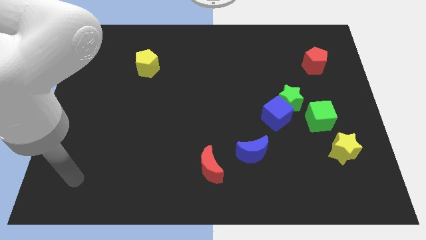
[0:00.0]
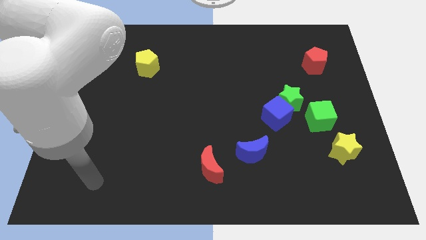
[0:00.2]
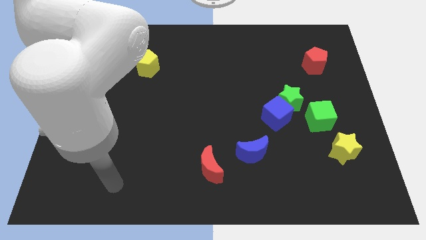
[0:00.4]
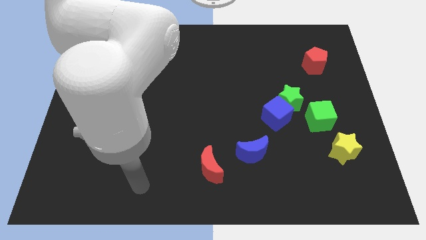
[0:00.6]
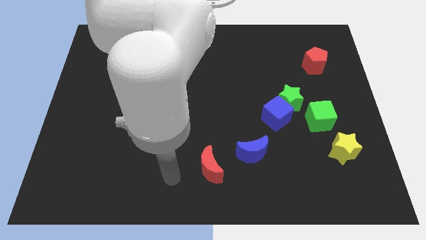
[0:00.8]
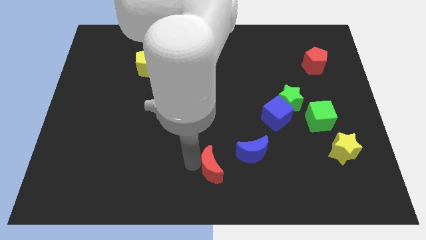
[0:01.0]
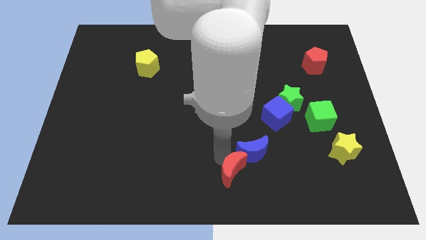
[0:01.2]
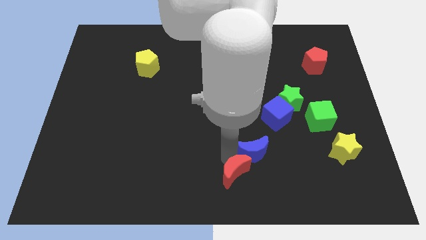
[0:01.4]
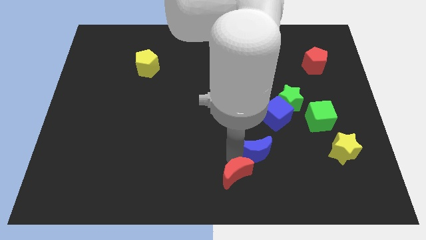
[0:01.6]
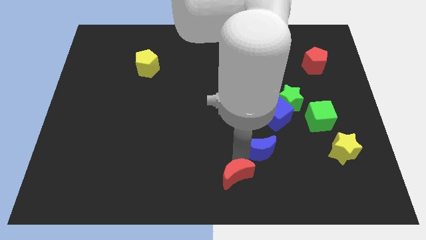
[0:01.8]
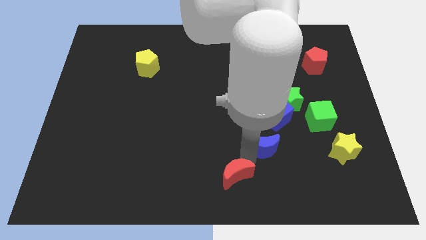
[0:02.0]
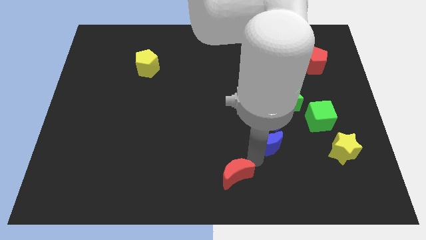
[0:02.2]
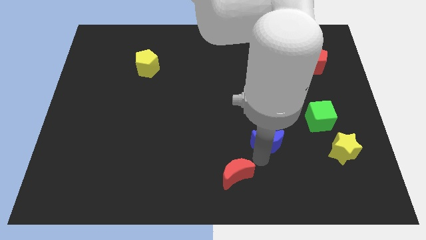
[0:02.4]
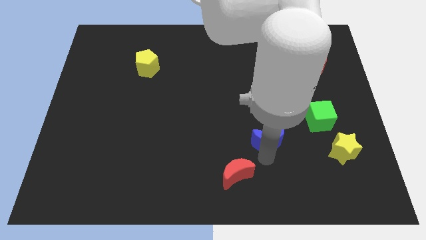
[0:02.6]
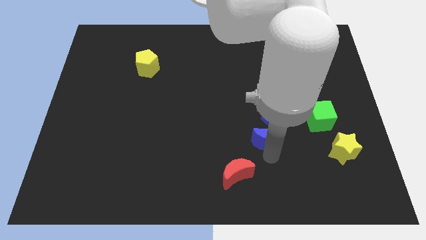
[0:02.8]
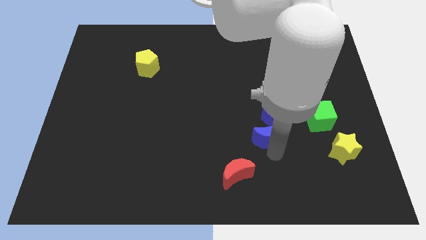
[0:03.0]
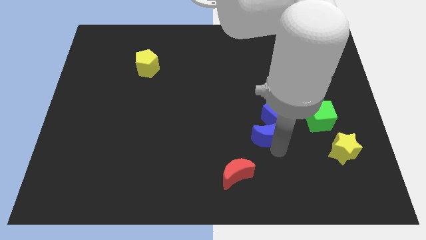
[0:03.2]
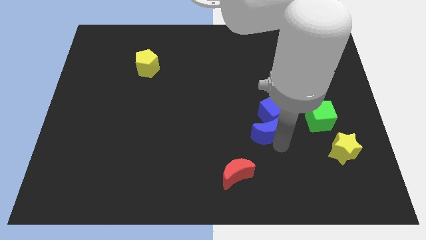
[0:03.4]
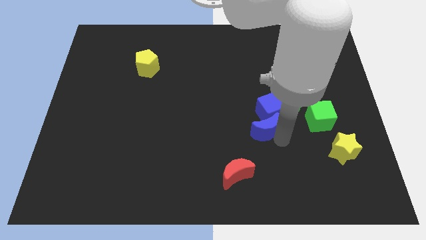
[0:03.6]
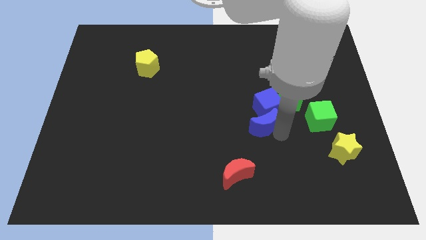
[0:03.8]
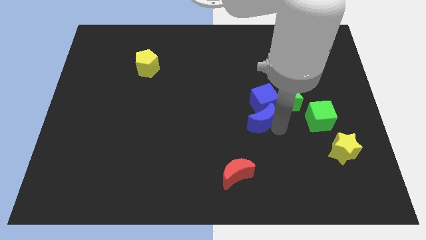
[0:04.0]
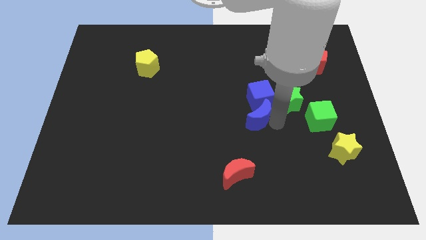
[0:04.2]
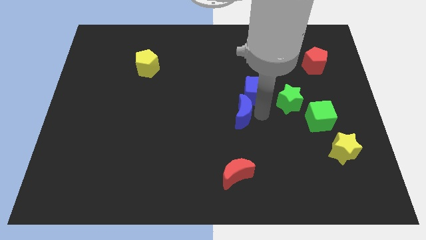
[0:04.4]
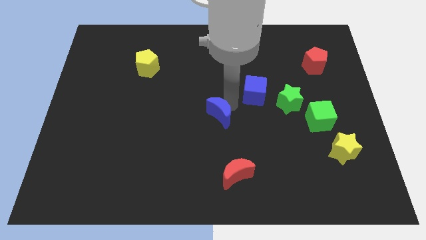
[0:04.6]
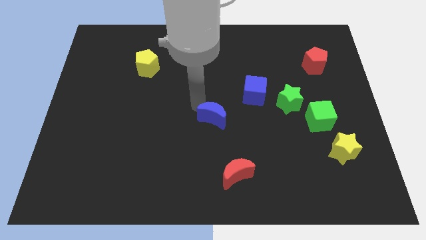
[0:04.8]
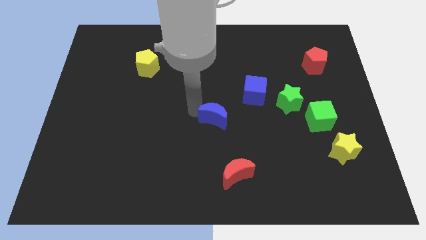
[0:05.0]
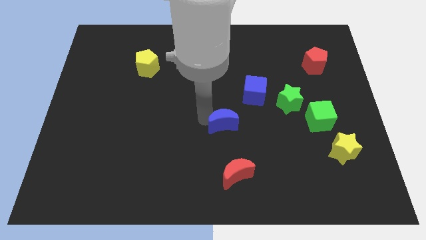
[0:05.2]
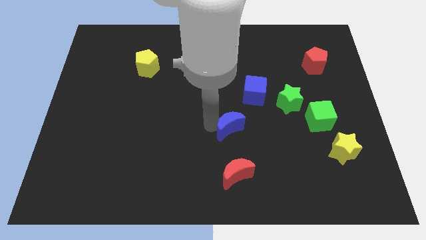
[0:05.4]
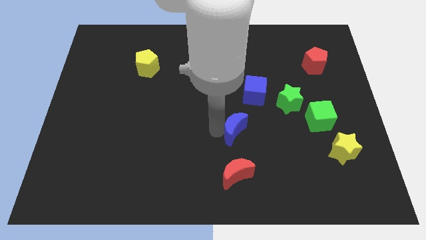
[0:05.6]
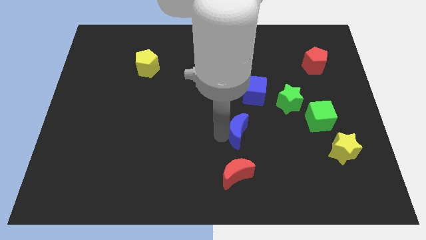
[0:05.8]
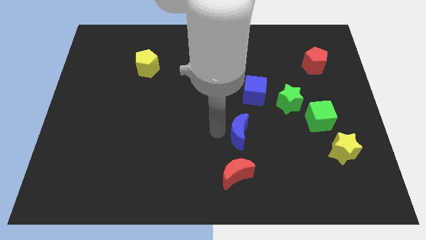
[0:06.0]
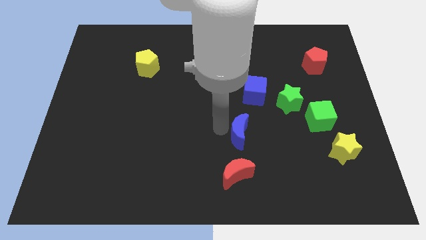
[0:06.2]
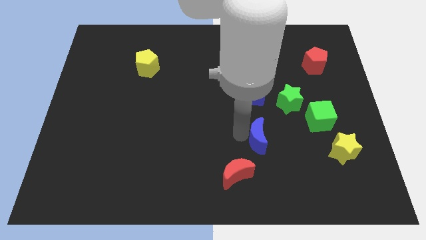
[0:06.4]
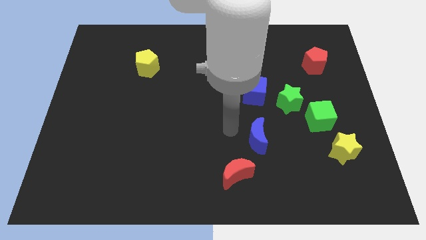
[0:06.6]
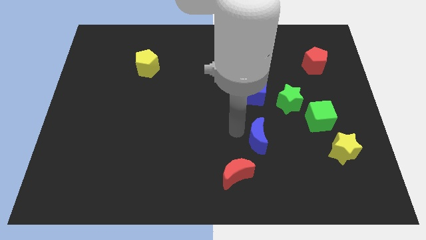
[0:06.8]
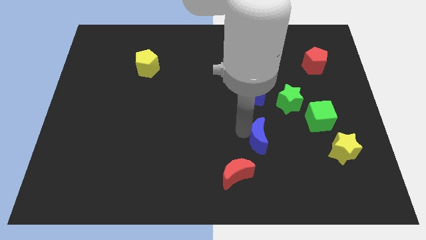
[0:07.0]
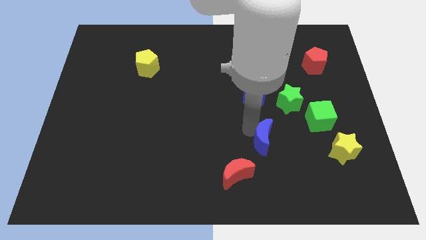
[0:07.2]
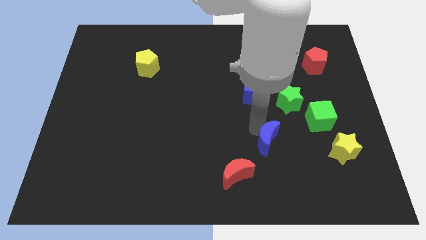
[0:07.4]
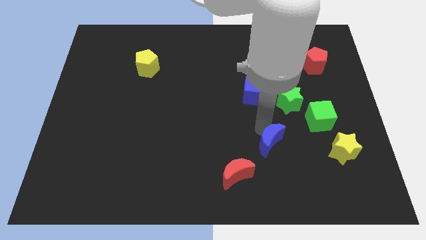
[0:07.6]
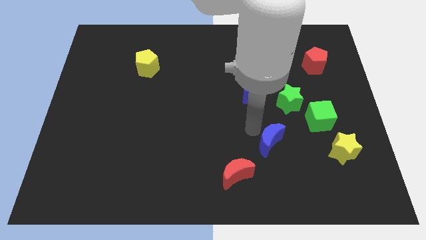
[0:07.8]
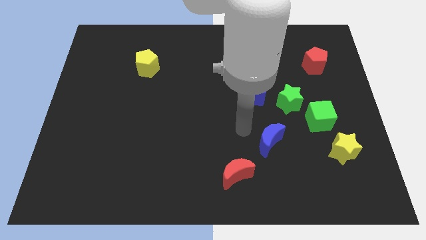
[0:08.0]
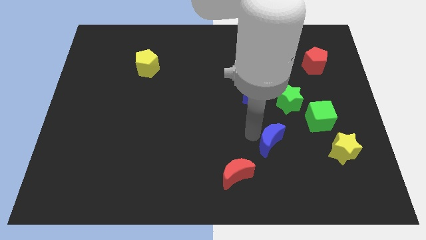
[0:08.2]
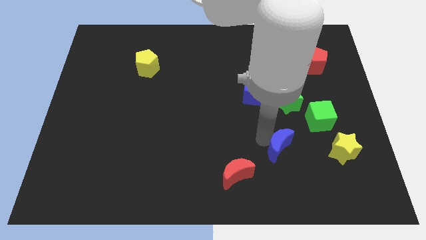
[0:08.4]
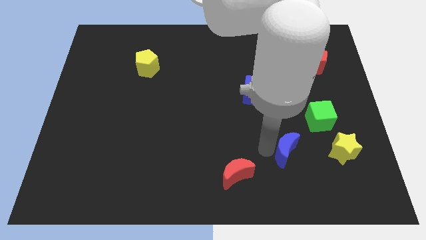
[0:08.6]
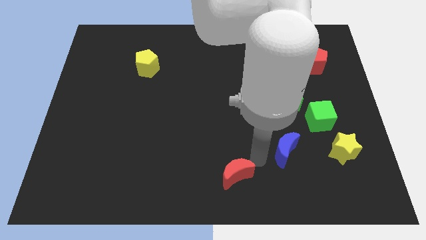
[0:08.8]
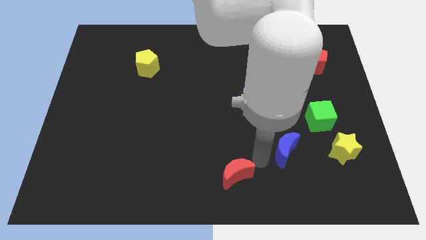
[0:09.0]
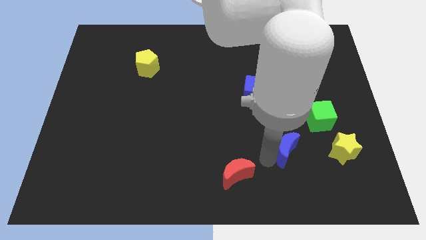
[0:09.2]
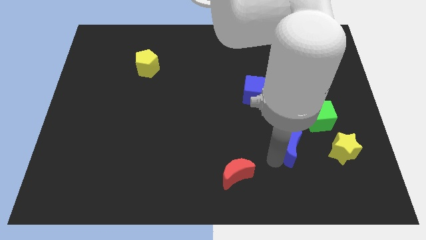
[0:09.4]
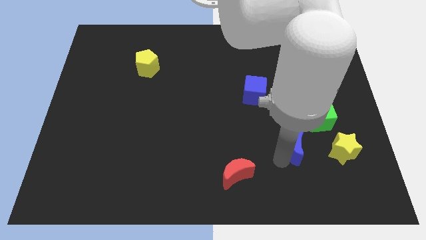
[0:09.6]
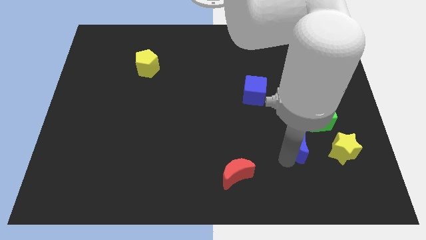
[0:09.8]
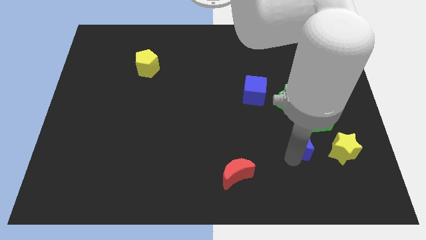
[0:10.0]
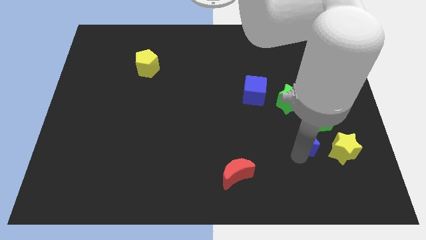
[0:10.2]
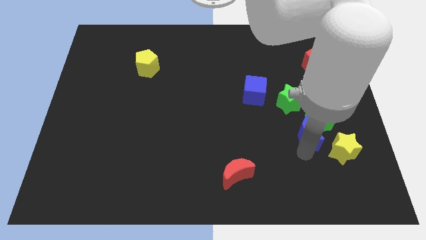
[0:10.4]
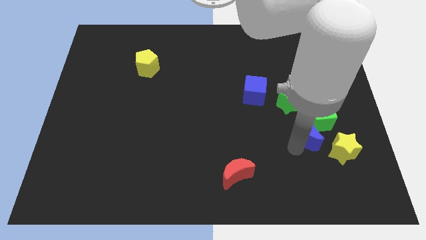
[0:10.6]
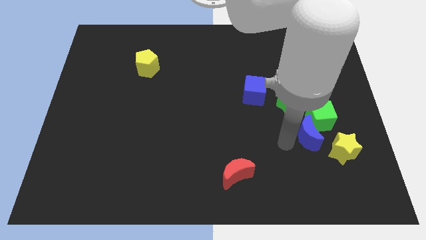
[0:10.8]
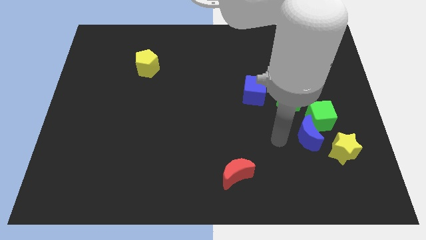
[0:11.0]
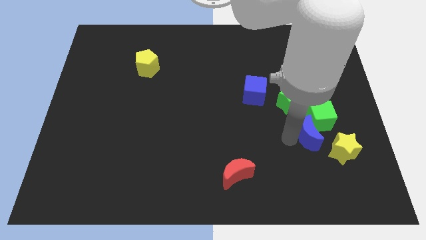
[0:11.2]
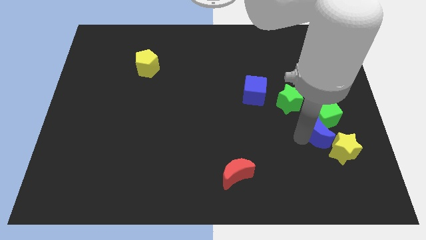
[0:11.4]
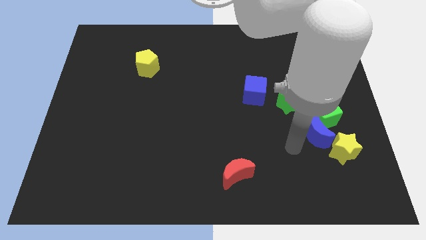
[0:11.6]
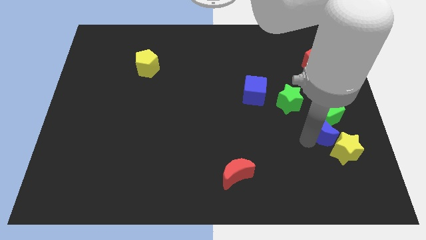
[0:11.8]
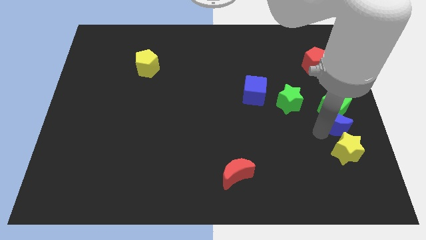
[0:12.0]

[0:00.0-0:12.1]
move the blue moon to the right side

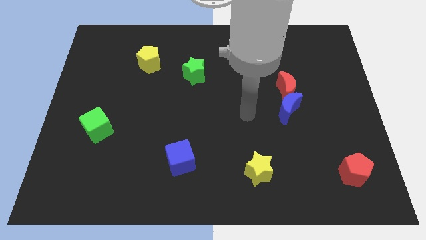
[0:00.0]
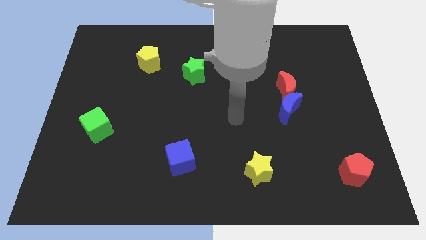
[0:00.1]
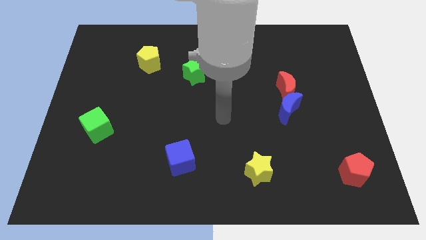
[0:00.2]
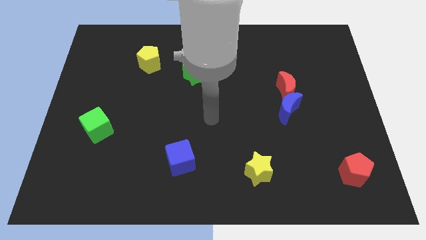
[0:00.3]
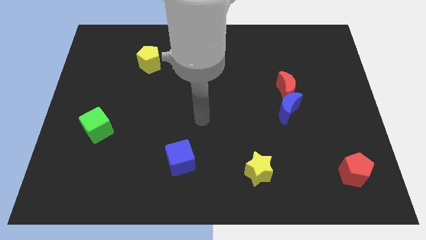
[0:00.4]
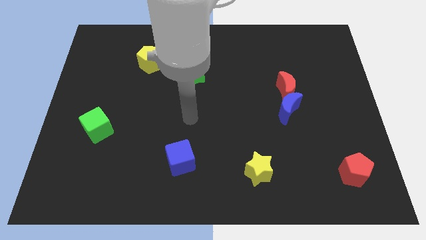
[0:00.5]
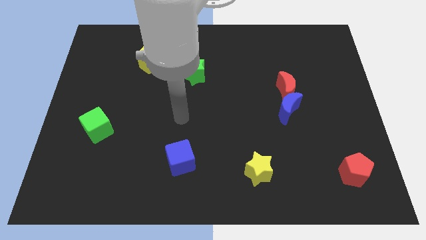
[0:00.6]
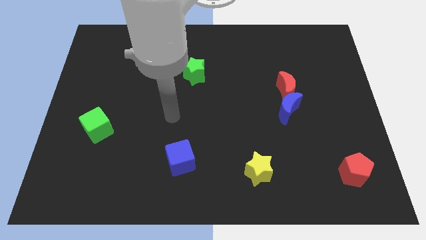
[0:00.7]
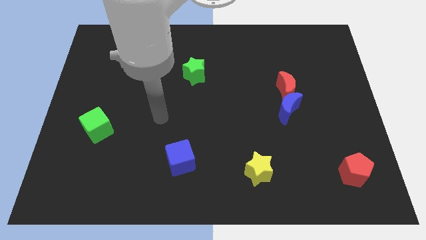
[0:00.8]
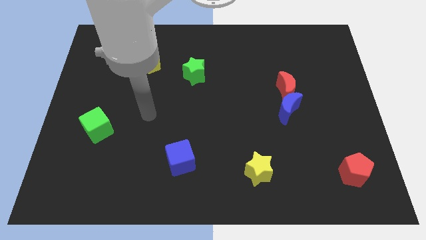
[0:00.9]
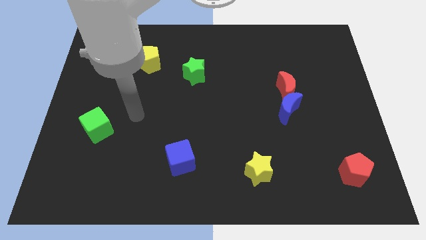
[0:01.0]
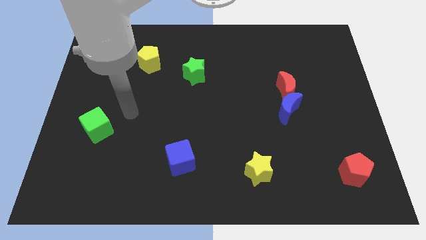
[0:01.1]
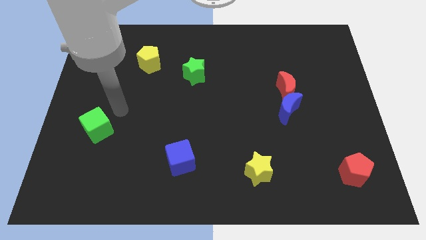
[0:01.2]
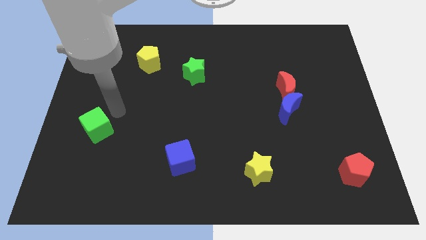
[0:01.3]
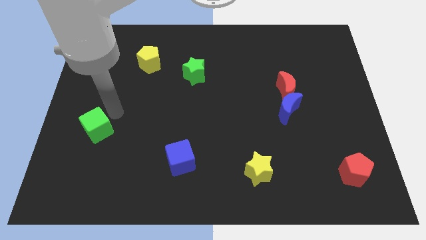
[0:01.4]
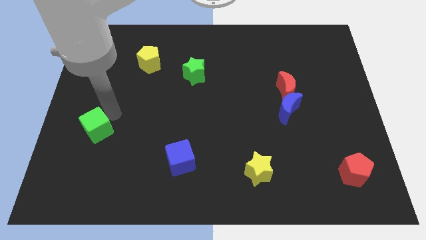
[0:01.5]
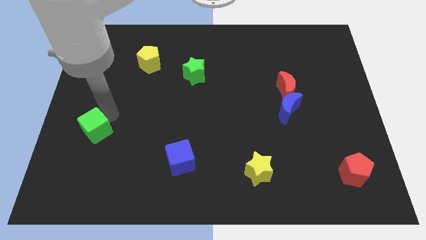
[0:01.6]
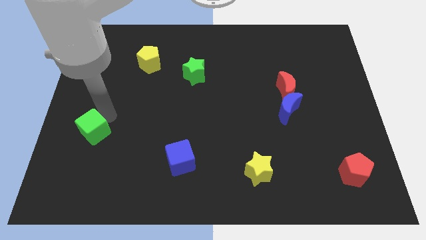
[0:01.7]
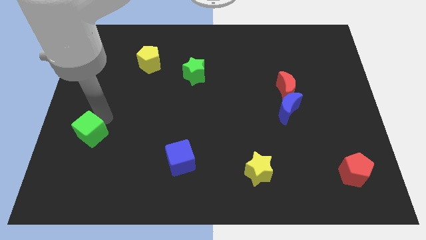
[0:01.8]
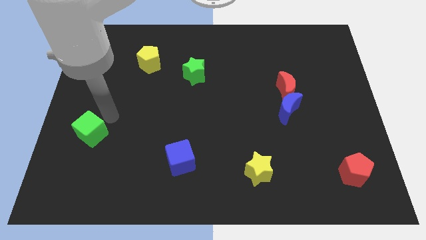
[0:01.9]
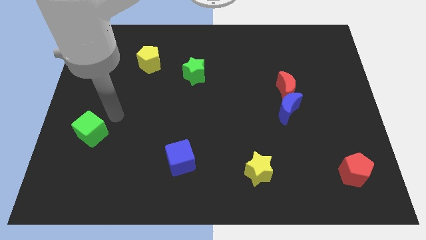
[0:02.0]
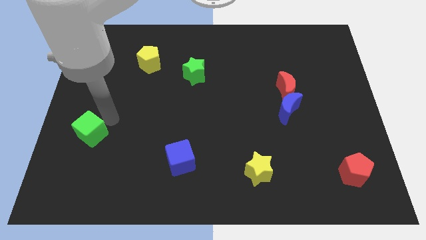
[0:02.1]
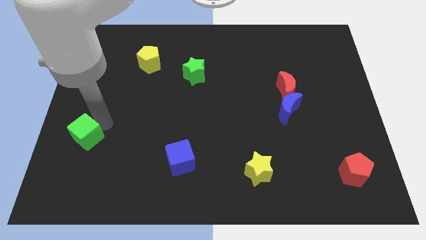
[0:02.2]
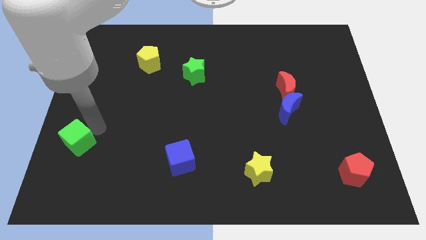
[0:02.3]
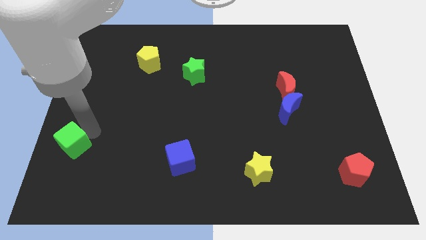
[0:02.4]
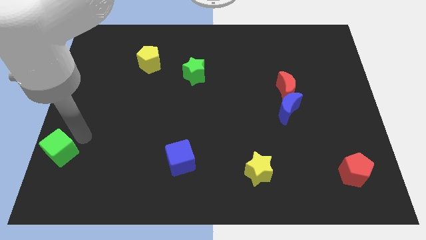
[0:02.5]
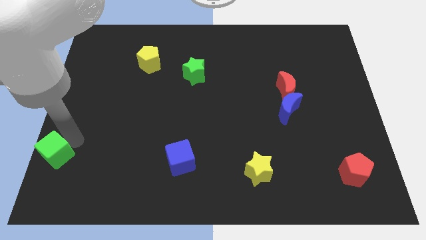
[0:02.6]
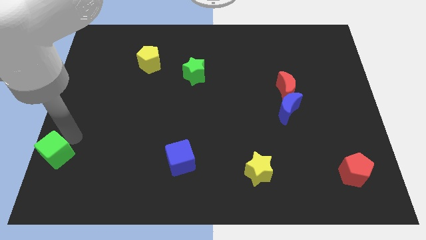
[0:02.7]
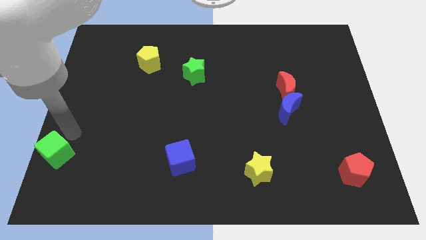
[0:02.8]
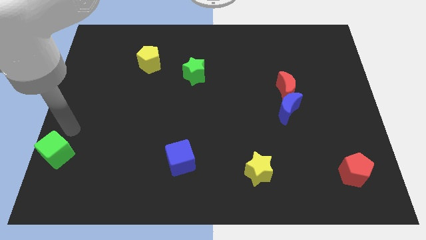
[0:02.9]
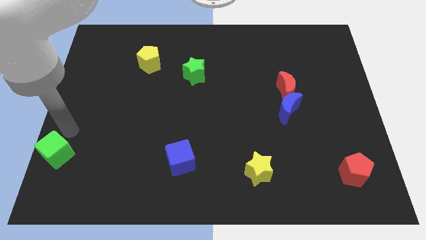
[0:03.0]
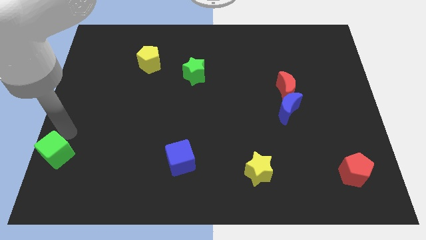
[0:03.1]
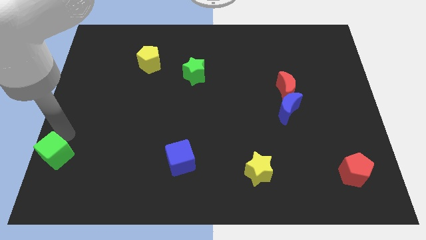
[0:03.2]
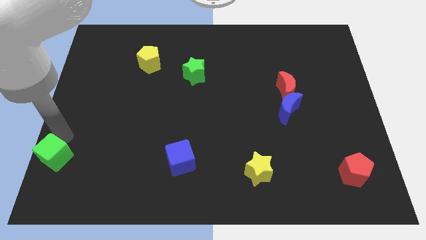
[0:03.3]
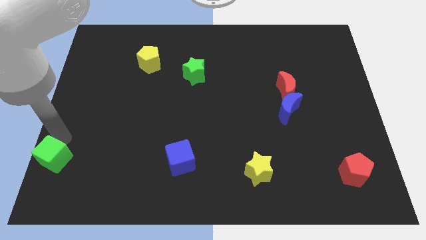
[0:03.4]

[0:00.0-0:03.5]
slide the green cube to the lower left corner
